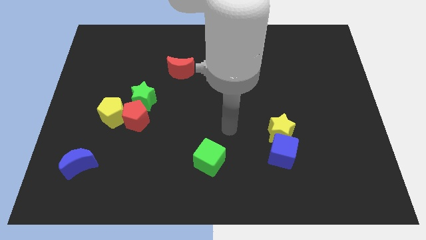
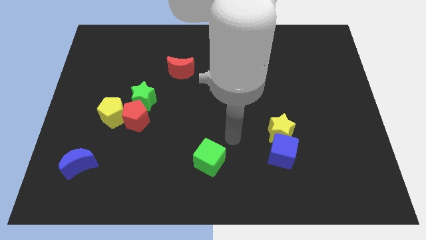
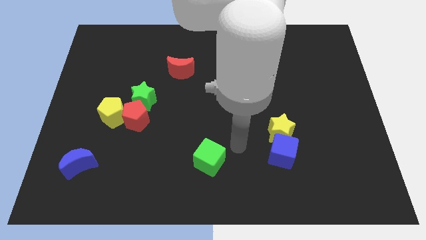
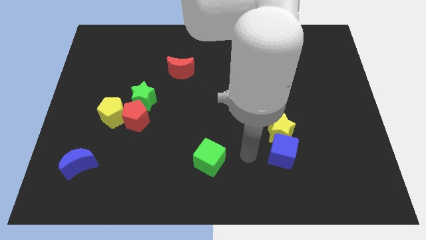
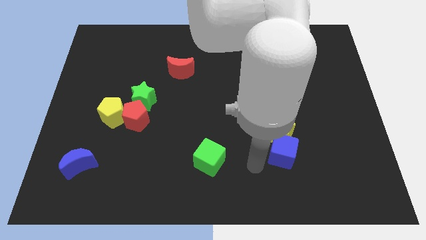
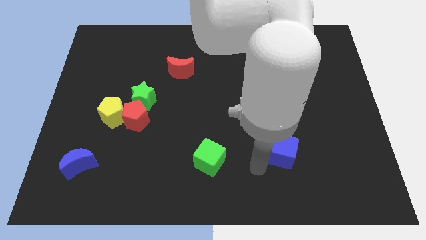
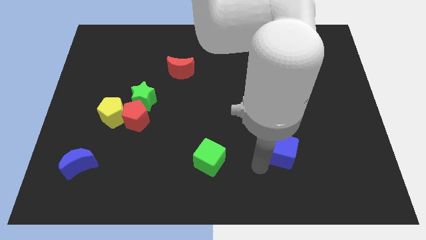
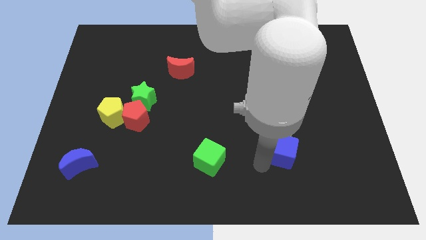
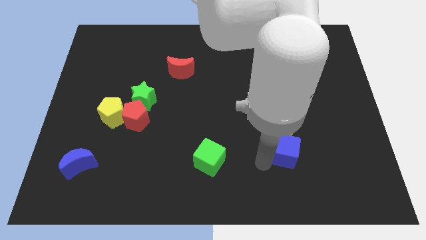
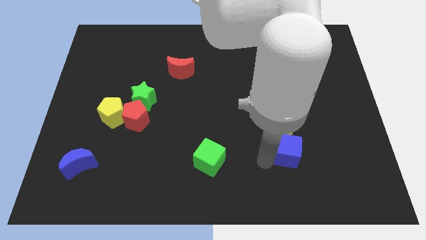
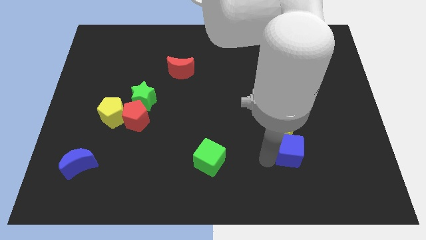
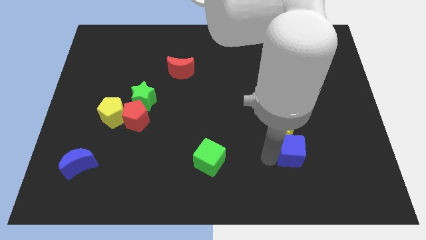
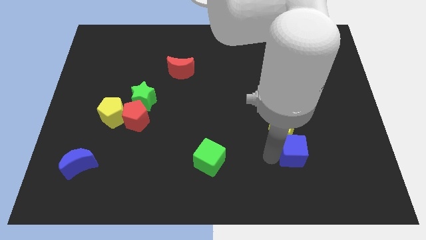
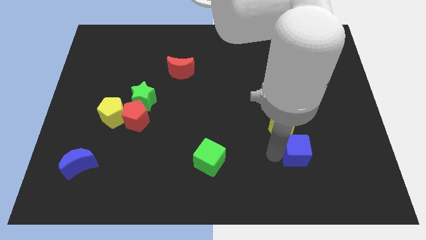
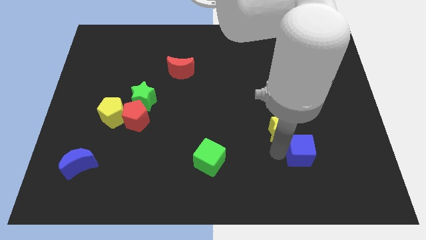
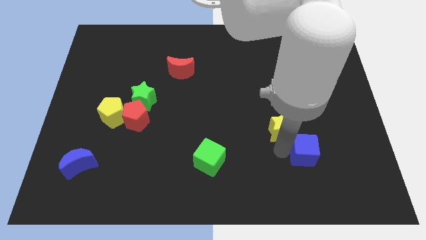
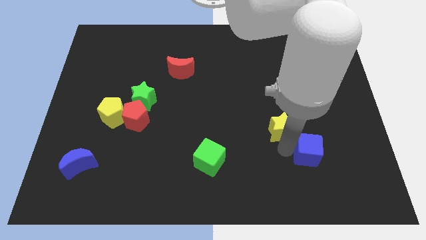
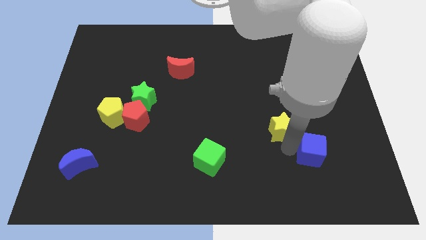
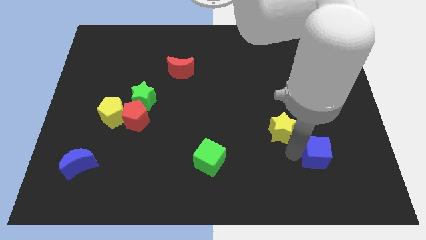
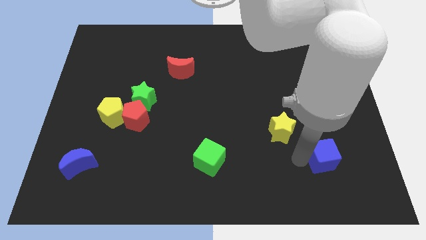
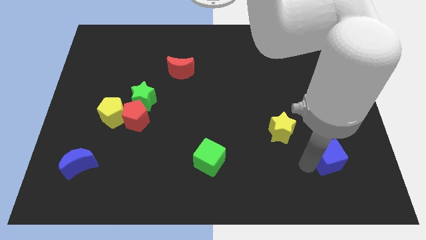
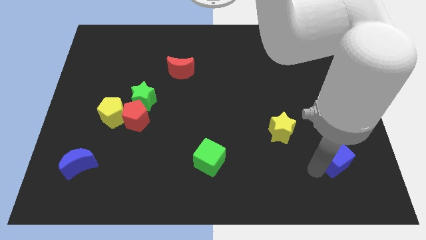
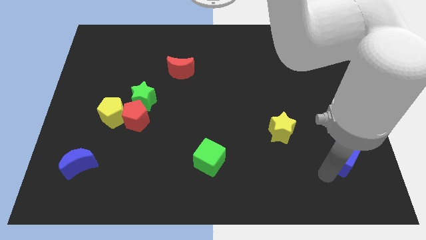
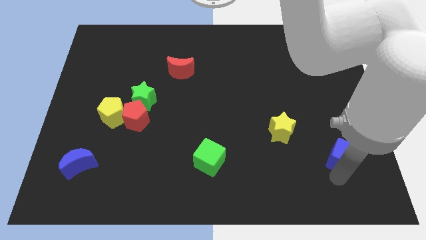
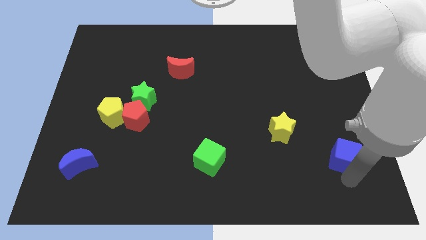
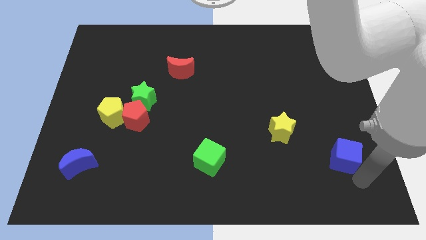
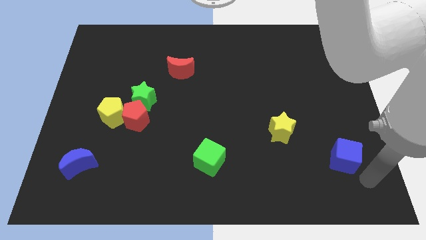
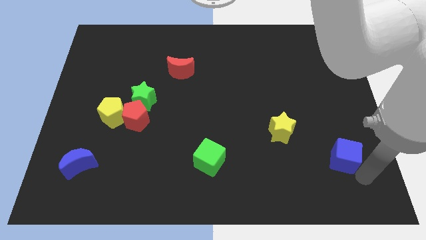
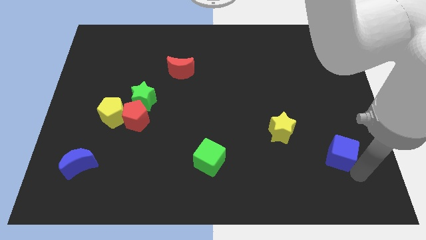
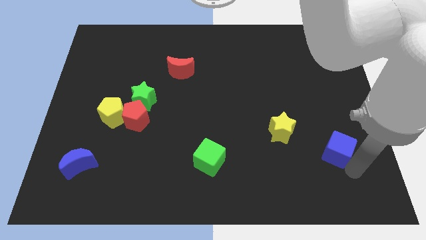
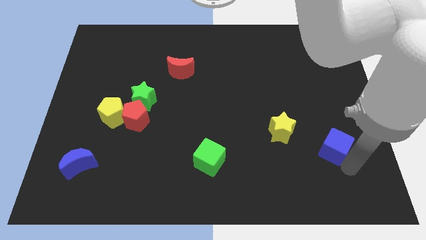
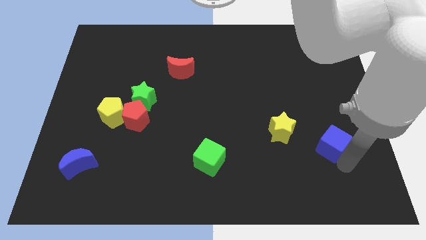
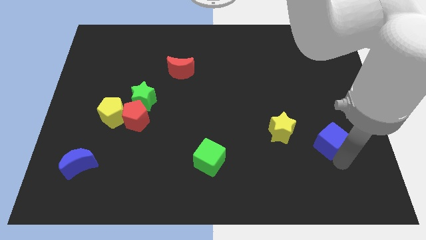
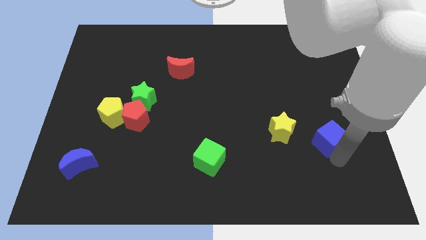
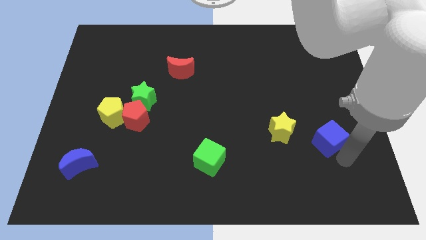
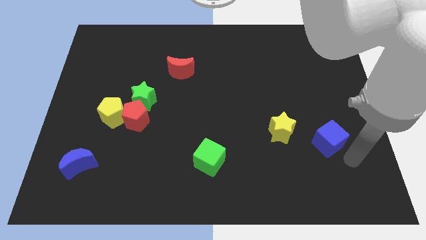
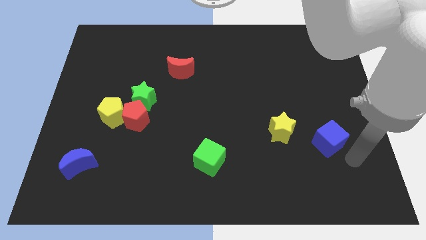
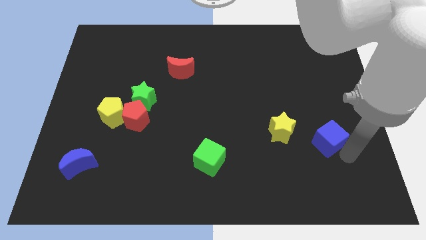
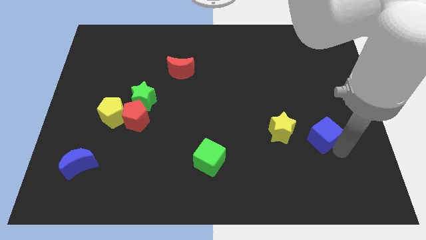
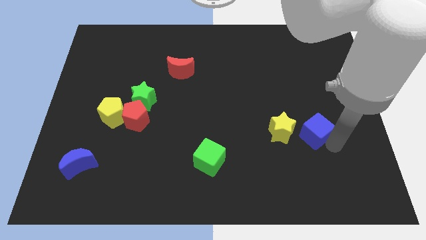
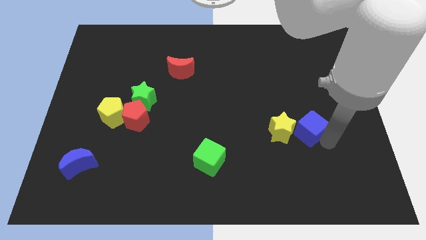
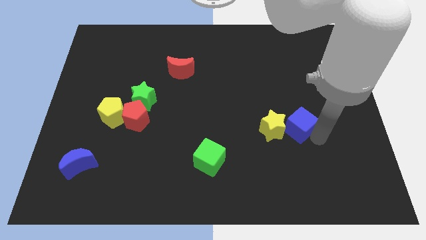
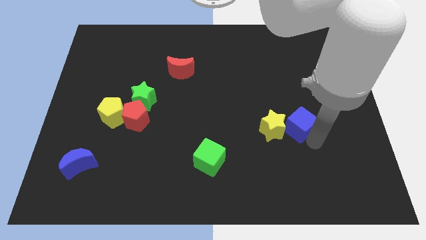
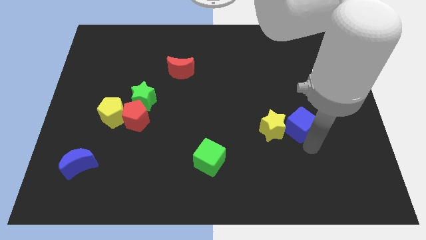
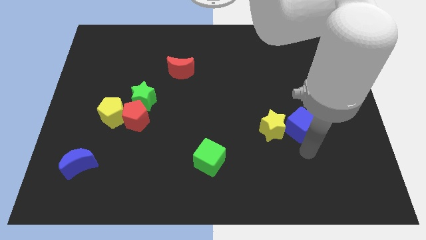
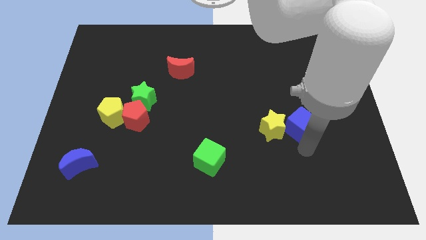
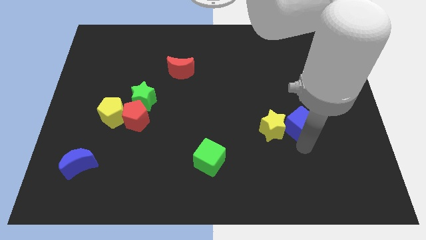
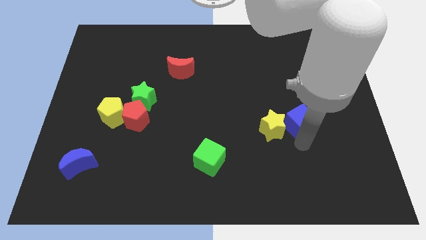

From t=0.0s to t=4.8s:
slide the blue cube a little upwards

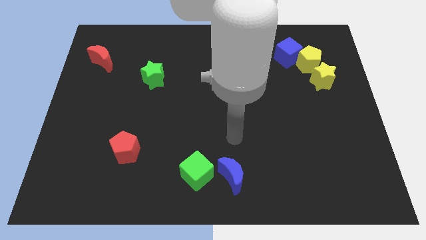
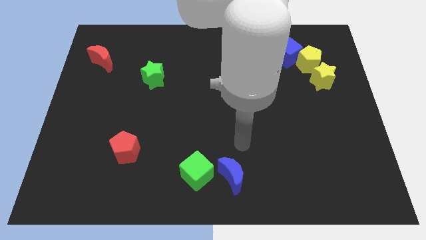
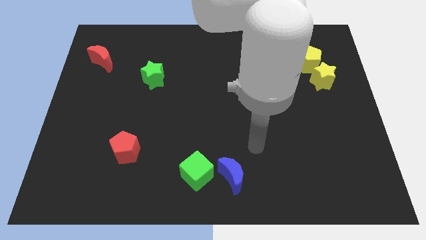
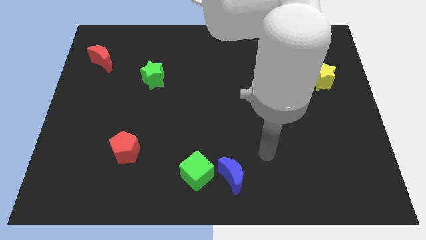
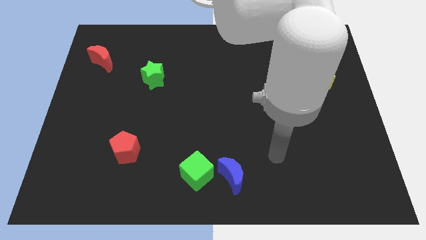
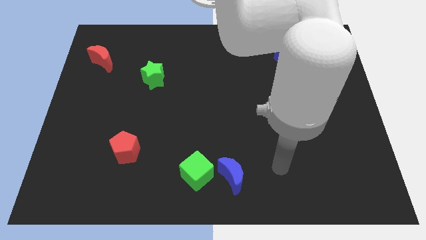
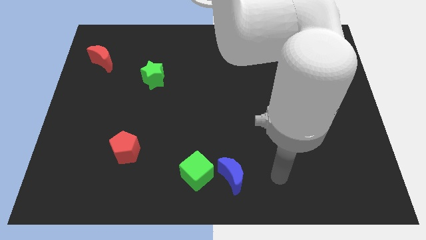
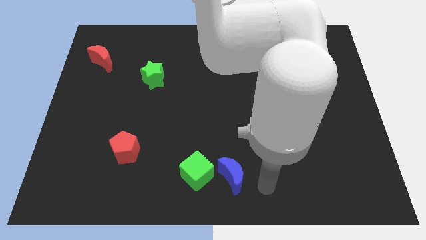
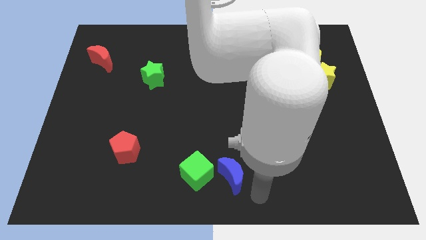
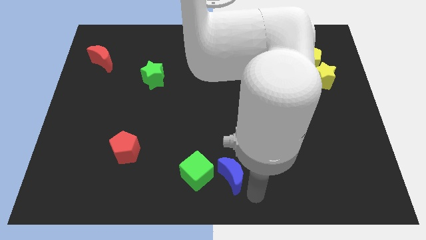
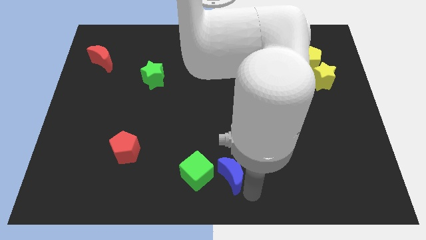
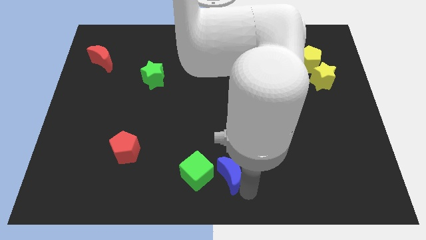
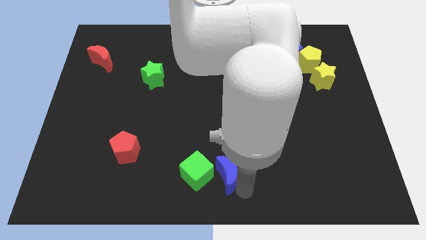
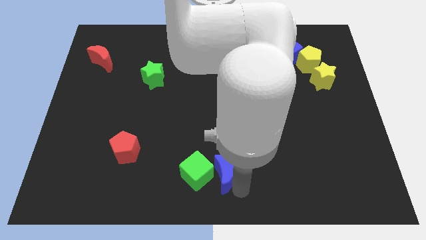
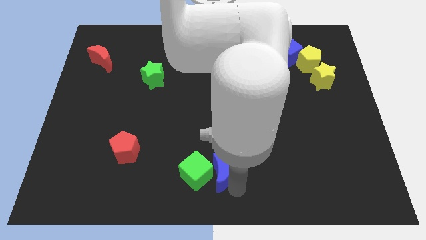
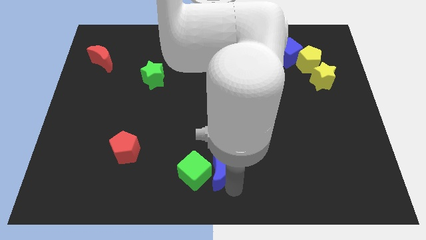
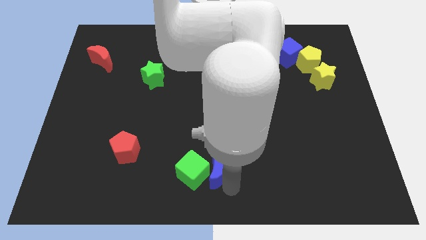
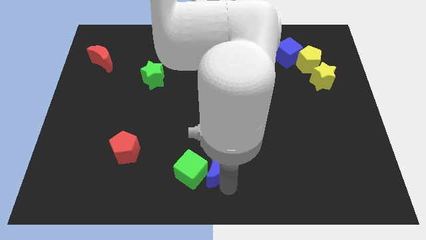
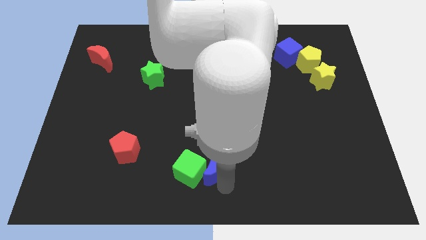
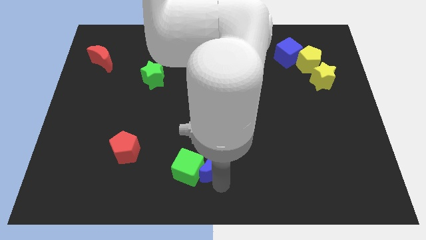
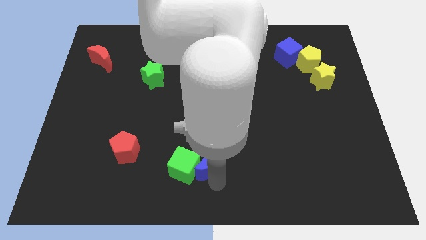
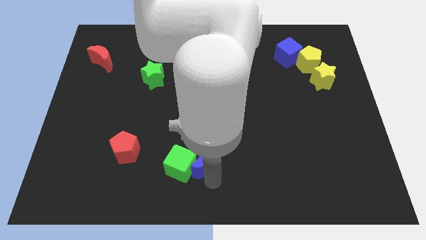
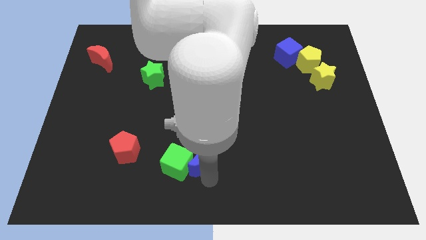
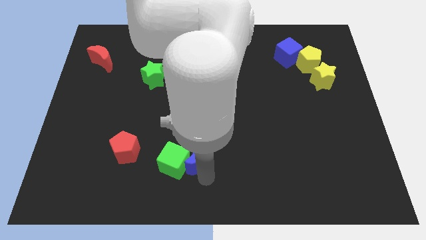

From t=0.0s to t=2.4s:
slide the blue moon a bit up and to the left

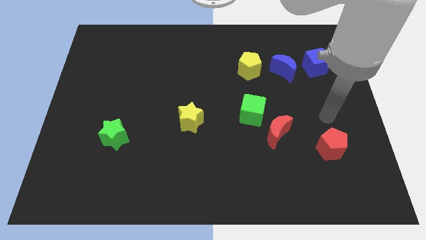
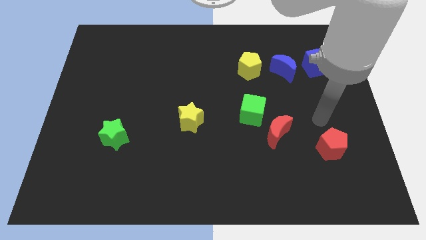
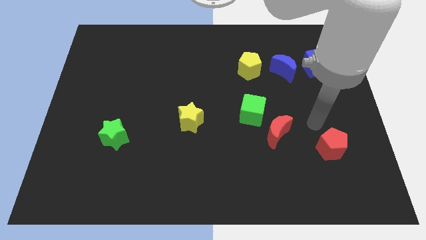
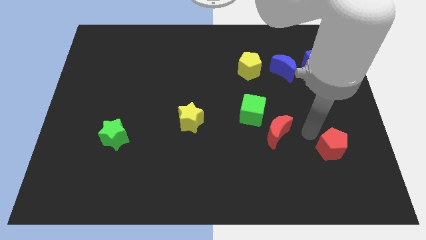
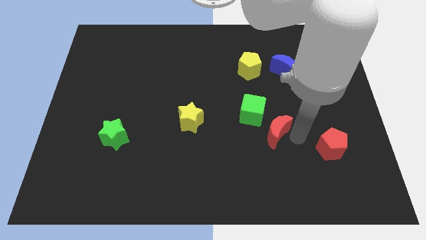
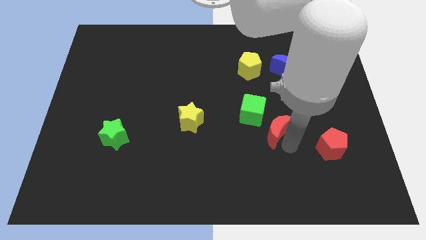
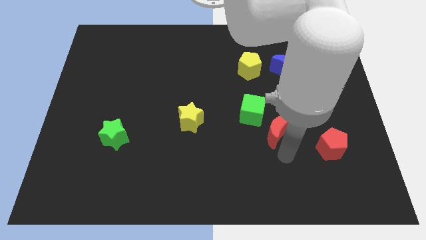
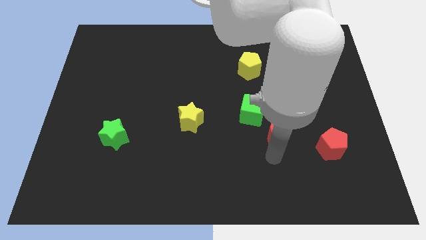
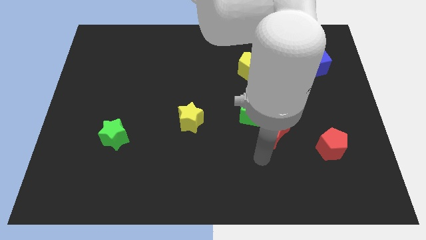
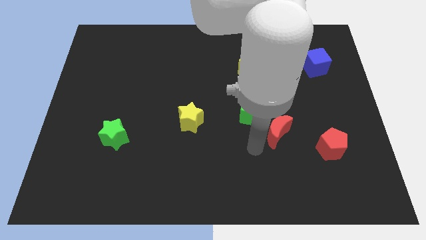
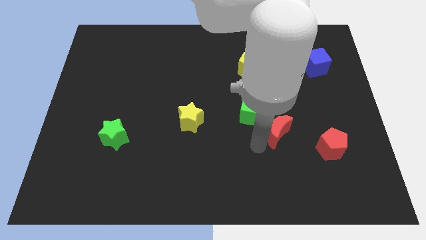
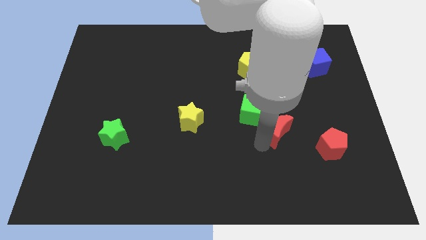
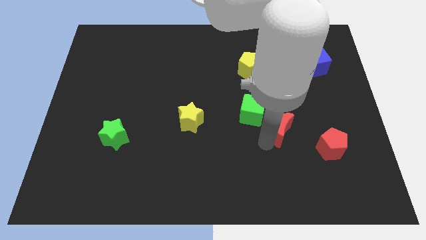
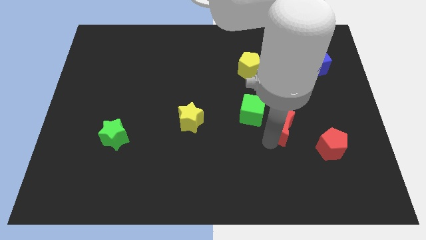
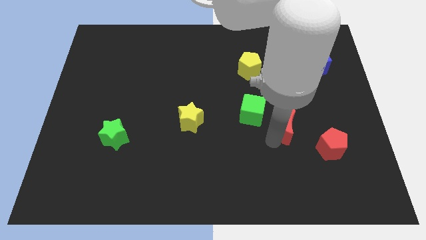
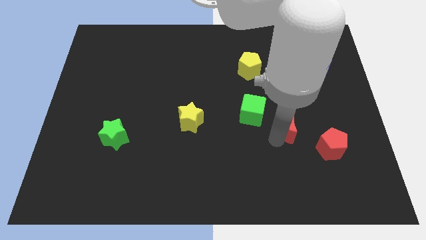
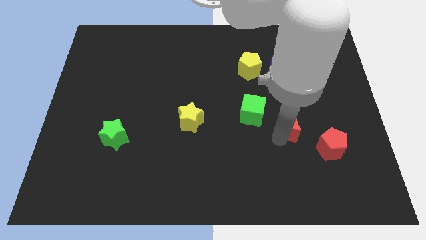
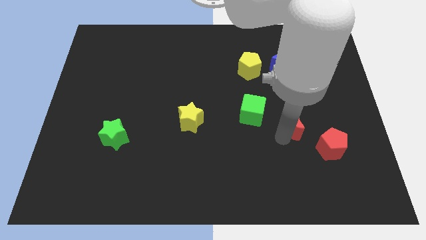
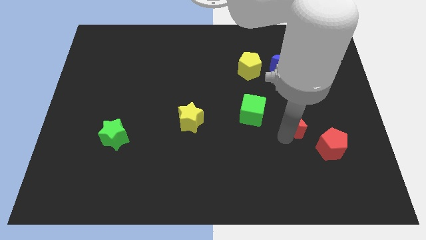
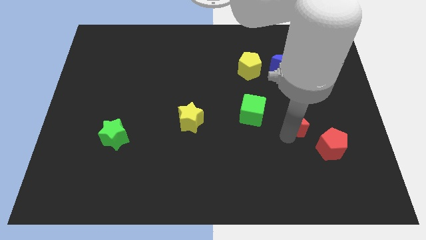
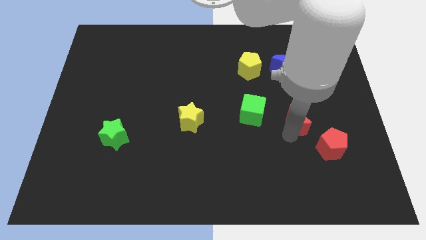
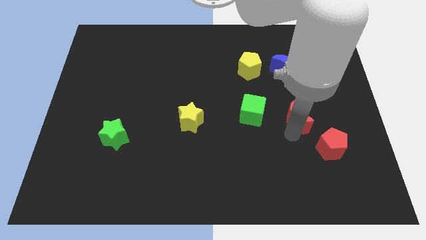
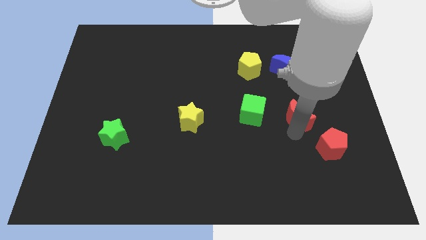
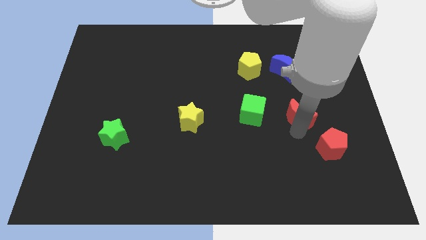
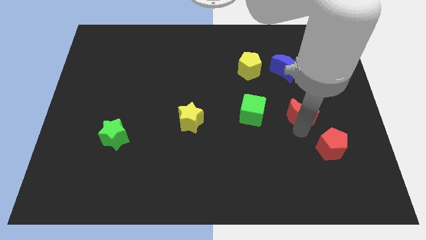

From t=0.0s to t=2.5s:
move the red moon somewhat upwards and right
